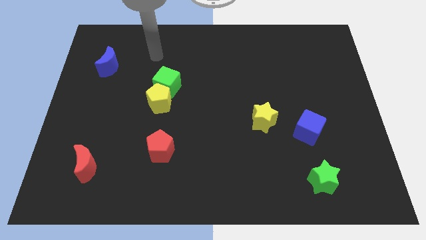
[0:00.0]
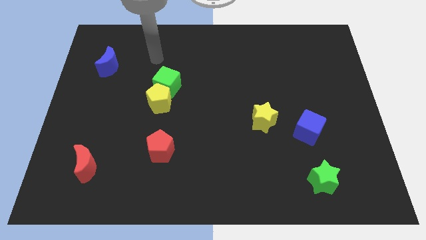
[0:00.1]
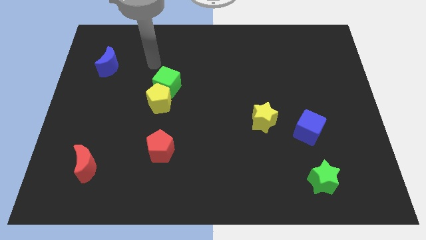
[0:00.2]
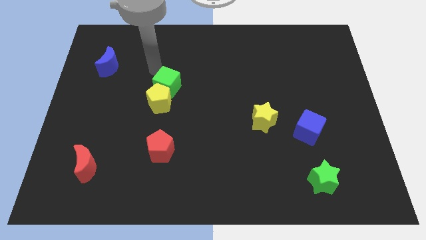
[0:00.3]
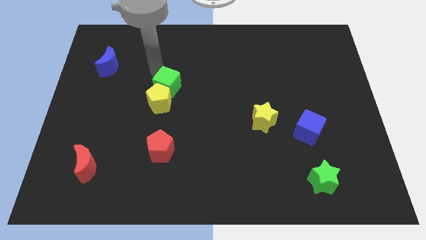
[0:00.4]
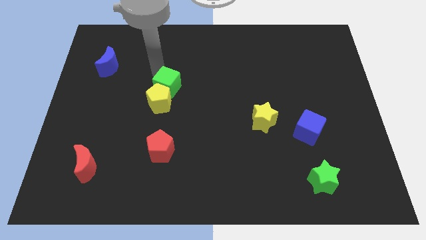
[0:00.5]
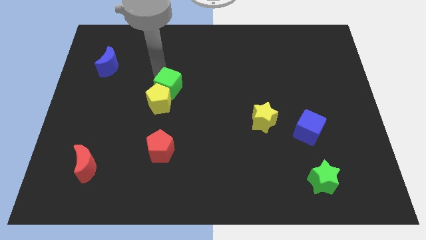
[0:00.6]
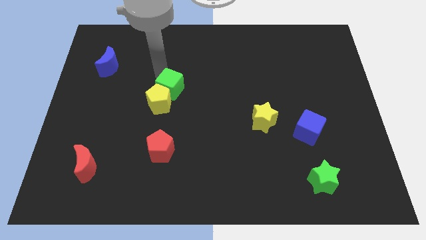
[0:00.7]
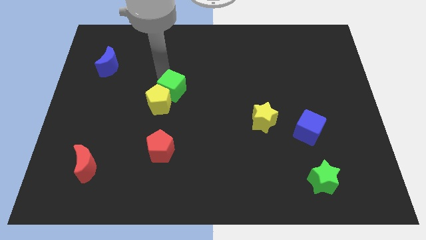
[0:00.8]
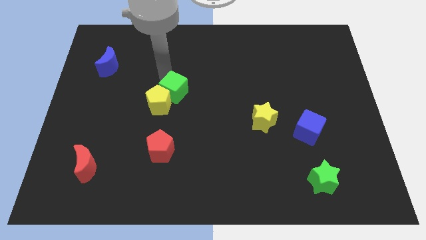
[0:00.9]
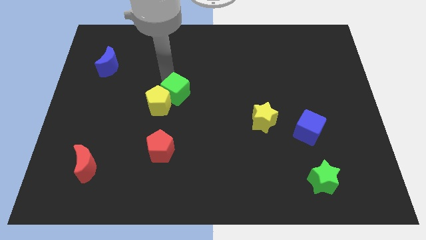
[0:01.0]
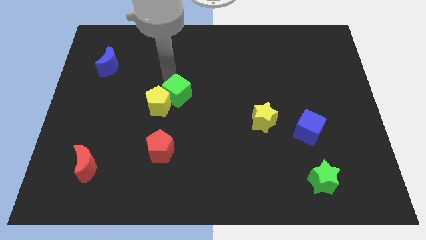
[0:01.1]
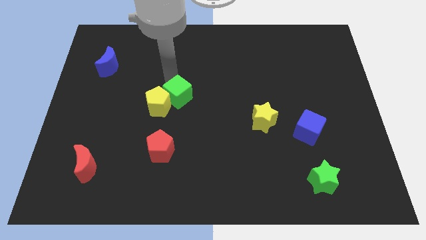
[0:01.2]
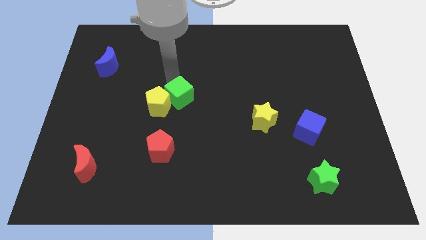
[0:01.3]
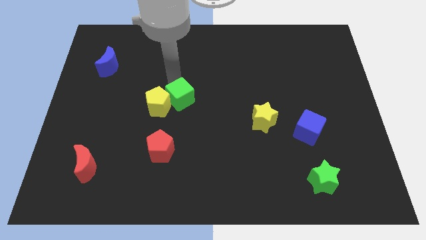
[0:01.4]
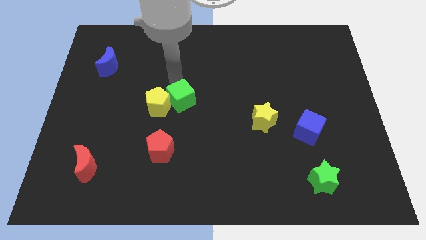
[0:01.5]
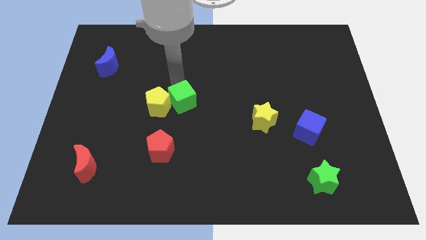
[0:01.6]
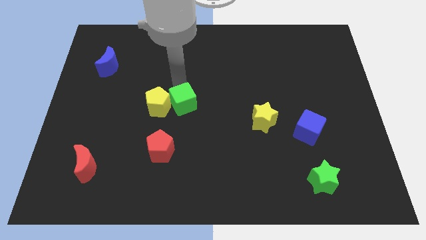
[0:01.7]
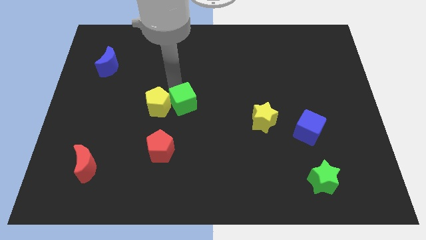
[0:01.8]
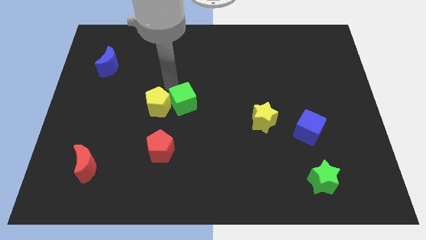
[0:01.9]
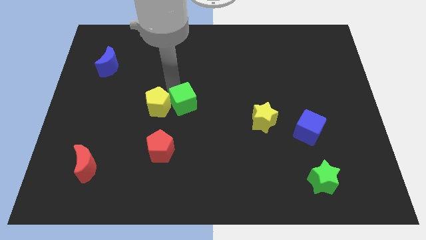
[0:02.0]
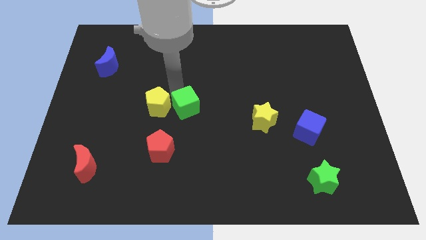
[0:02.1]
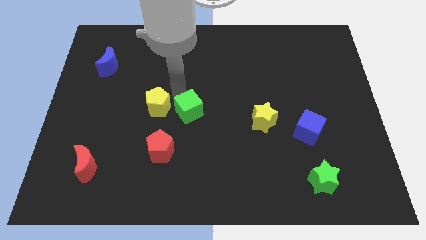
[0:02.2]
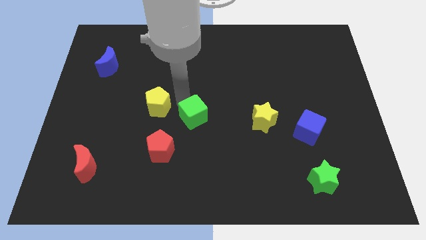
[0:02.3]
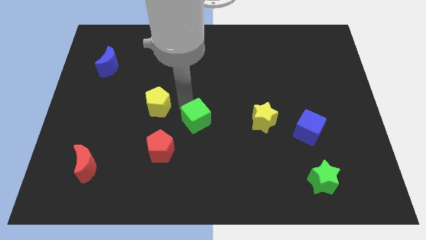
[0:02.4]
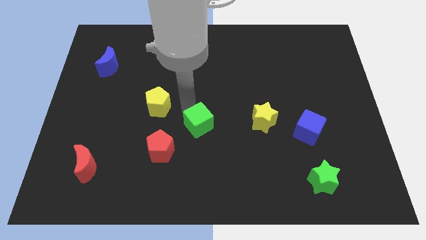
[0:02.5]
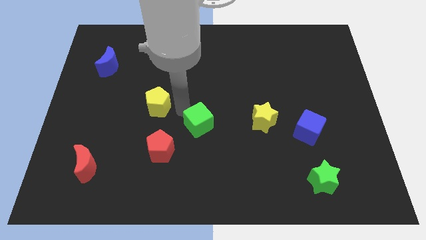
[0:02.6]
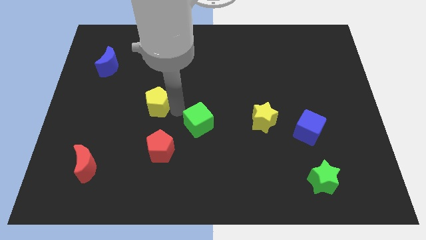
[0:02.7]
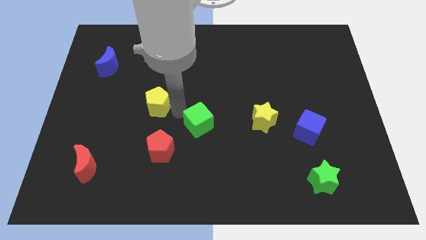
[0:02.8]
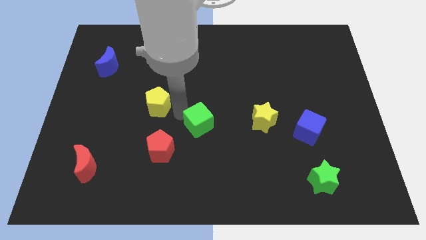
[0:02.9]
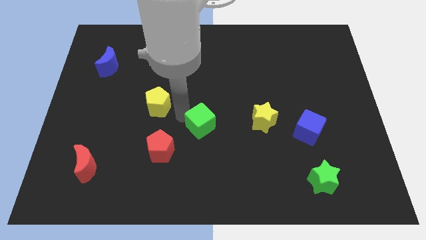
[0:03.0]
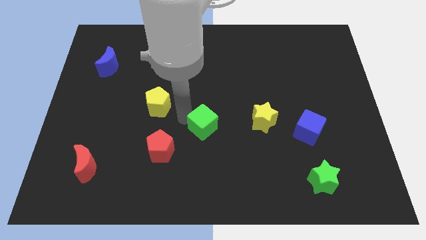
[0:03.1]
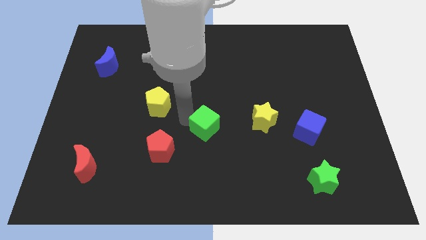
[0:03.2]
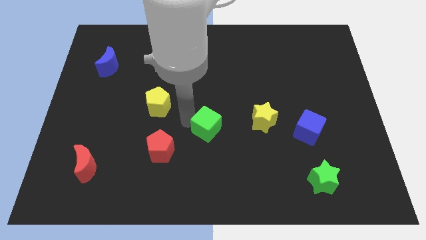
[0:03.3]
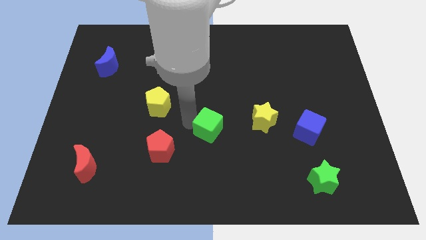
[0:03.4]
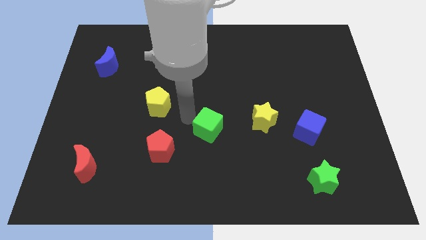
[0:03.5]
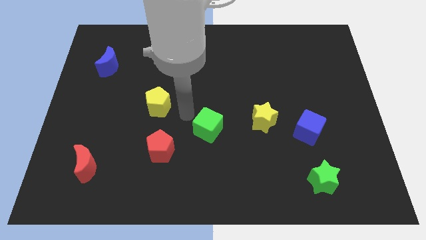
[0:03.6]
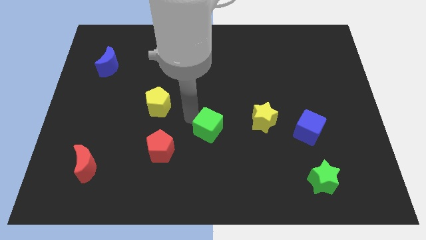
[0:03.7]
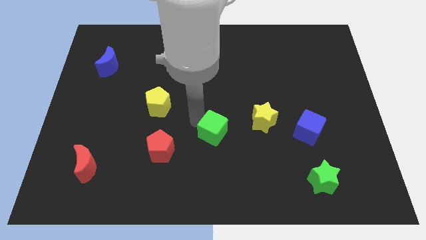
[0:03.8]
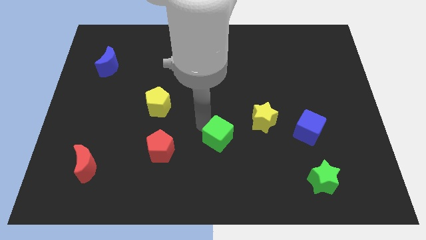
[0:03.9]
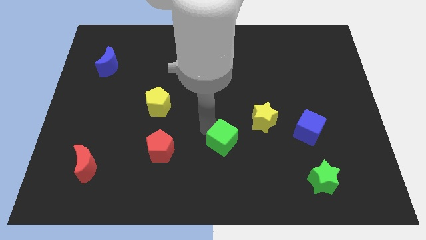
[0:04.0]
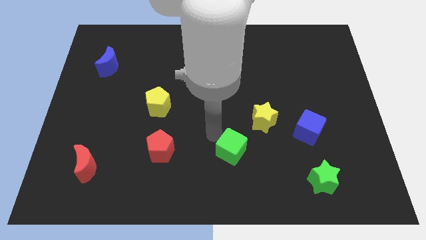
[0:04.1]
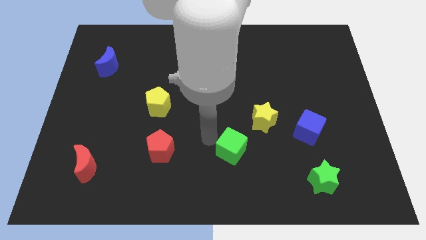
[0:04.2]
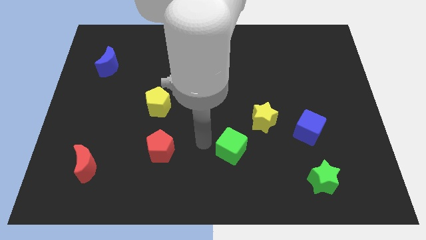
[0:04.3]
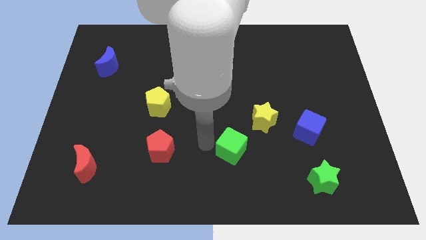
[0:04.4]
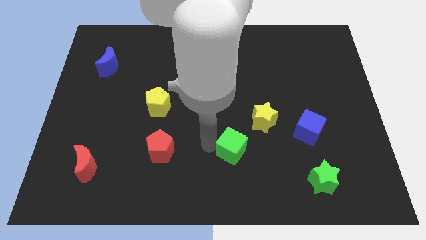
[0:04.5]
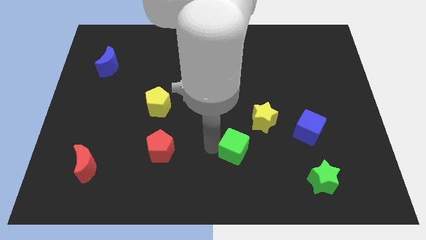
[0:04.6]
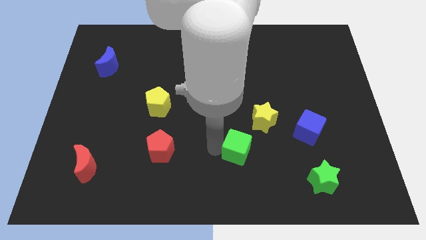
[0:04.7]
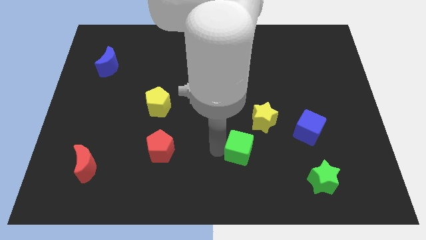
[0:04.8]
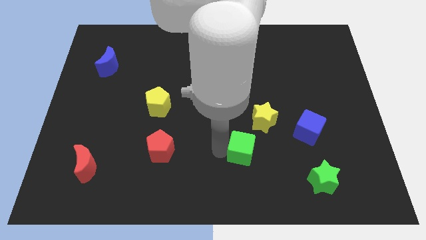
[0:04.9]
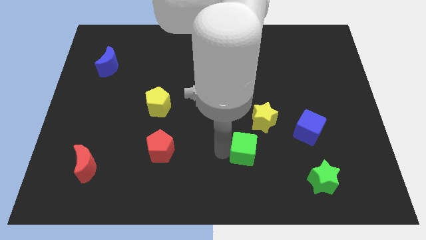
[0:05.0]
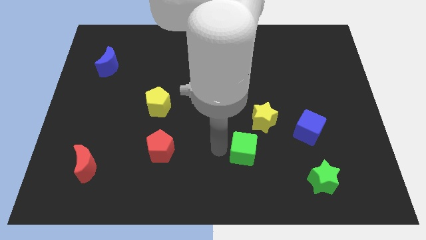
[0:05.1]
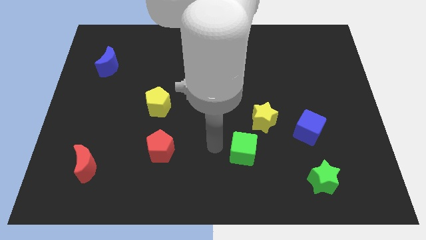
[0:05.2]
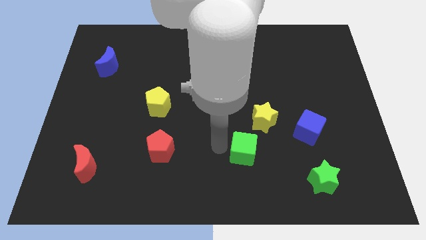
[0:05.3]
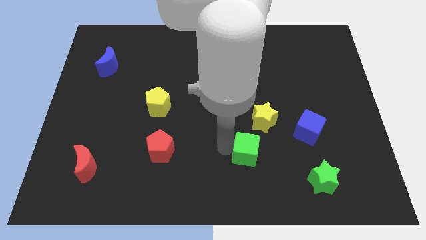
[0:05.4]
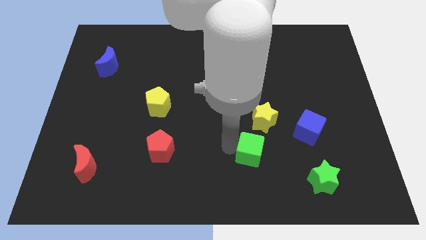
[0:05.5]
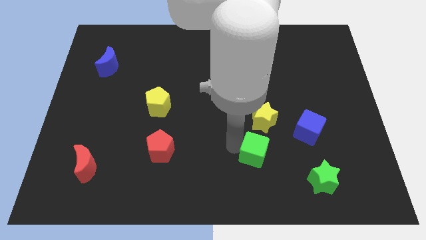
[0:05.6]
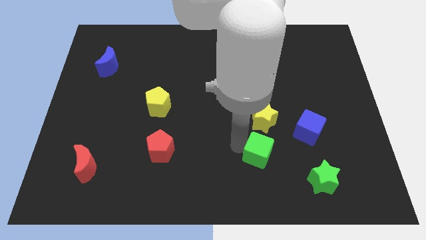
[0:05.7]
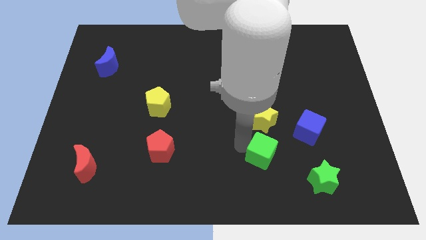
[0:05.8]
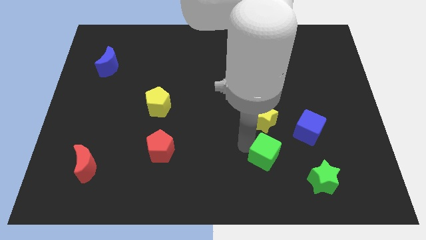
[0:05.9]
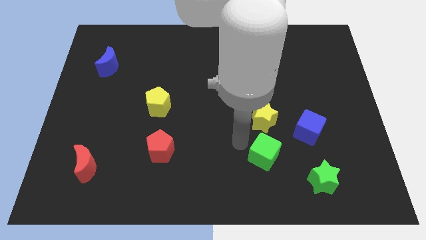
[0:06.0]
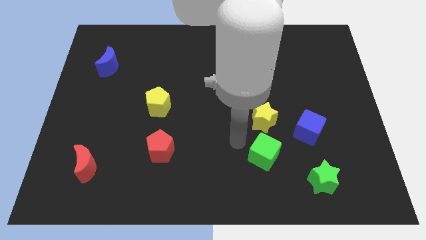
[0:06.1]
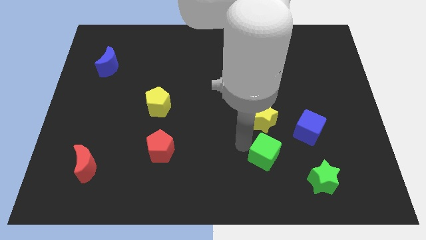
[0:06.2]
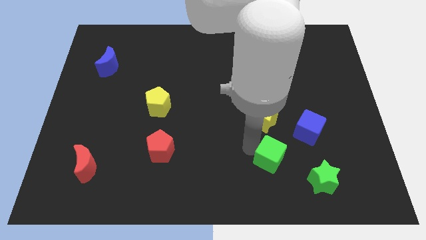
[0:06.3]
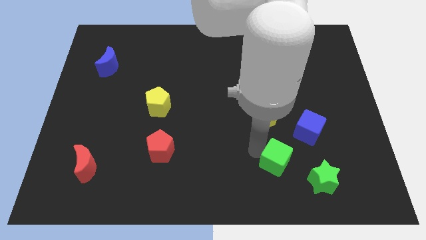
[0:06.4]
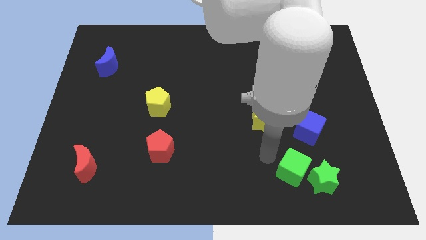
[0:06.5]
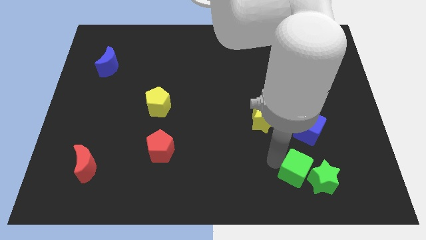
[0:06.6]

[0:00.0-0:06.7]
slide the green cube to the green star
